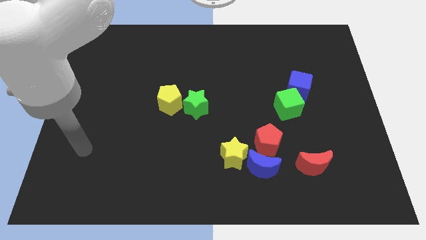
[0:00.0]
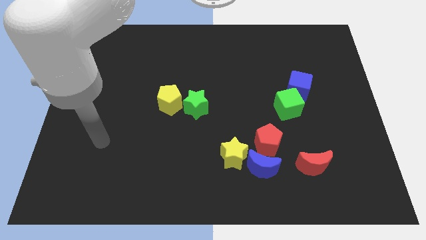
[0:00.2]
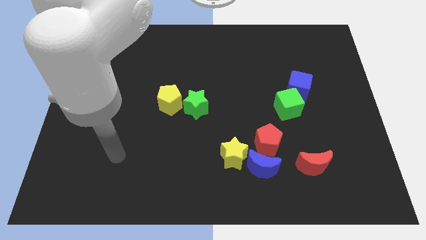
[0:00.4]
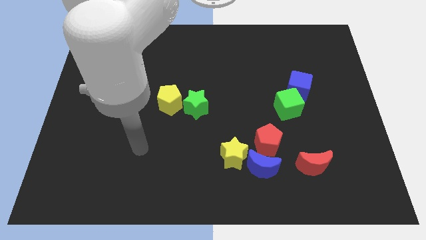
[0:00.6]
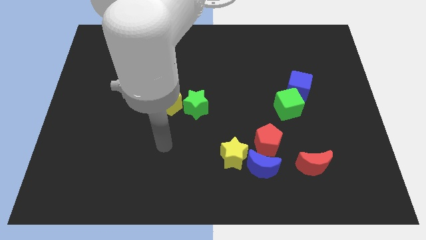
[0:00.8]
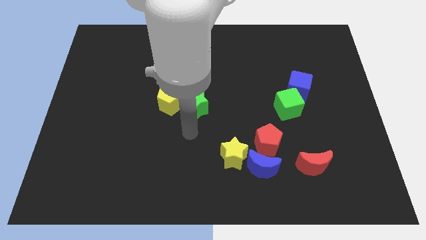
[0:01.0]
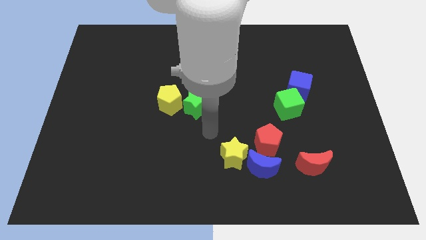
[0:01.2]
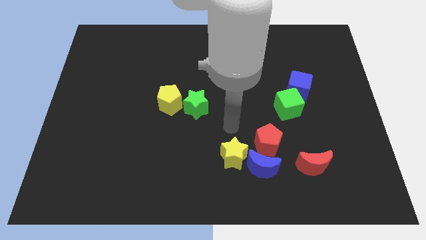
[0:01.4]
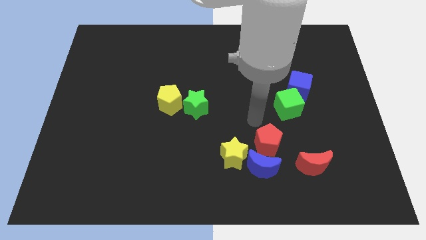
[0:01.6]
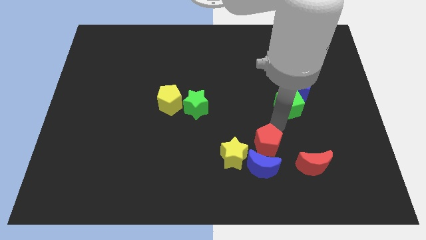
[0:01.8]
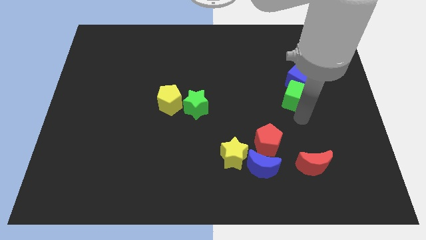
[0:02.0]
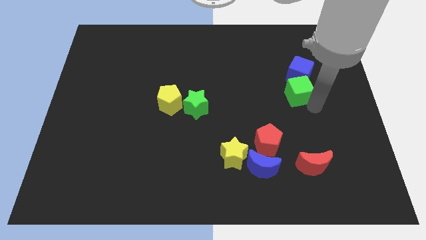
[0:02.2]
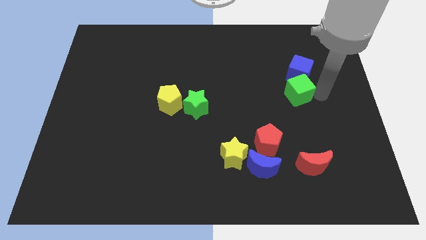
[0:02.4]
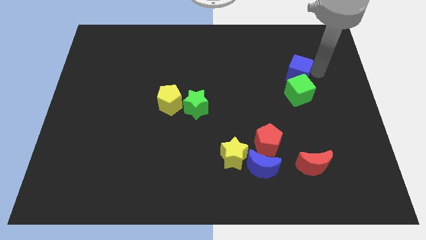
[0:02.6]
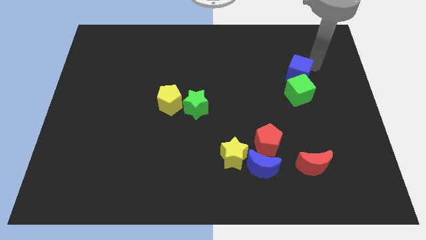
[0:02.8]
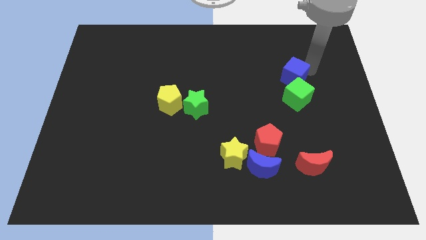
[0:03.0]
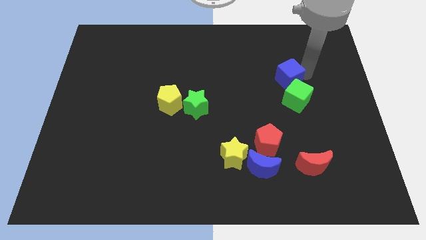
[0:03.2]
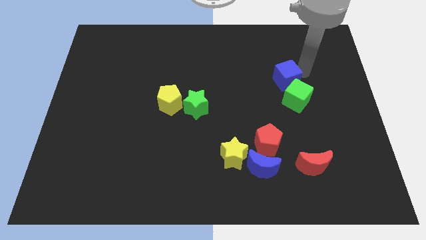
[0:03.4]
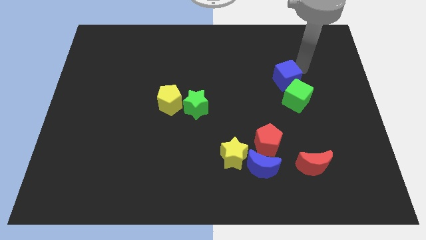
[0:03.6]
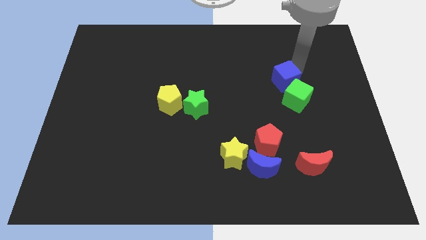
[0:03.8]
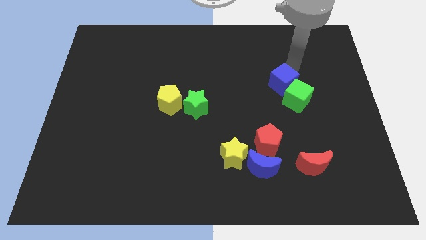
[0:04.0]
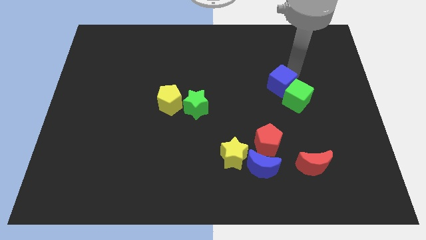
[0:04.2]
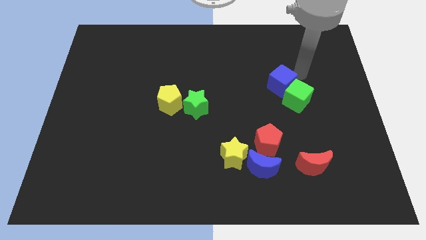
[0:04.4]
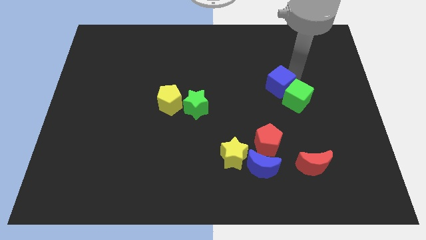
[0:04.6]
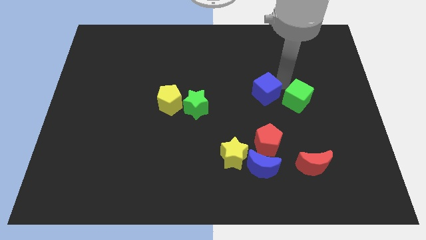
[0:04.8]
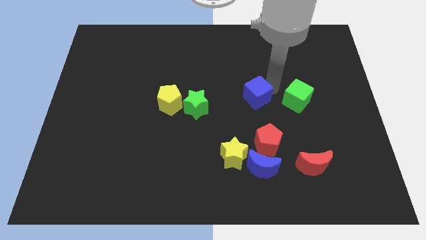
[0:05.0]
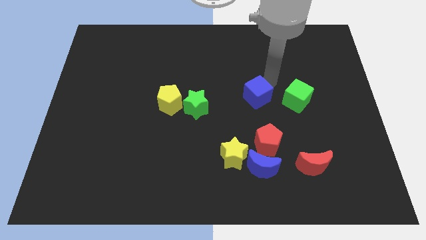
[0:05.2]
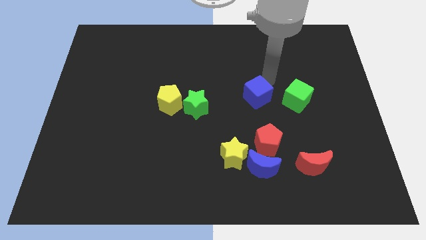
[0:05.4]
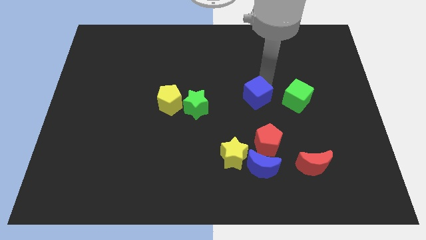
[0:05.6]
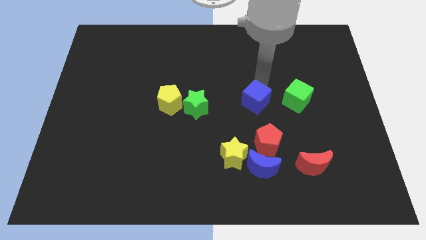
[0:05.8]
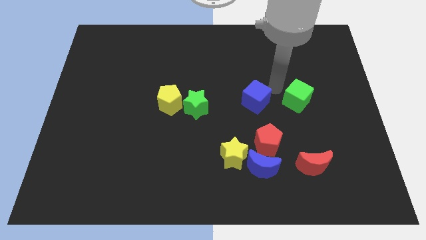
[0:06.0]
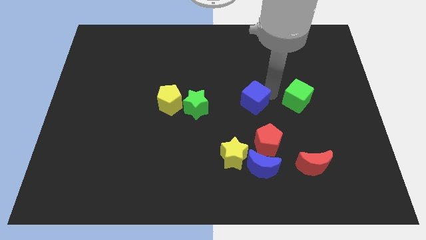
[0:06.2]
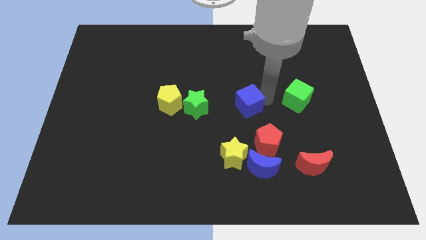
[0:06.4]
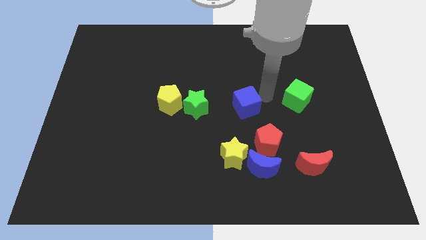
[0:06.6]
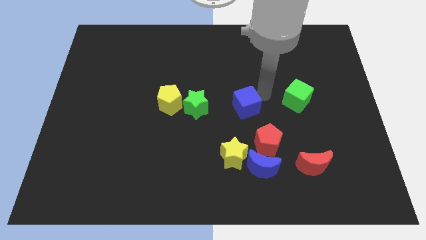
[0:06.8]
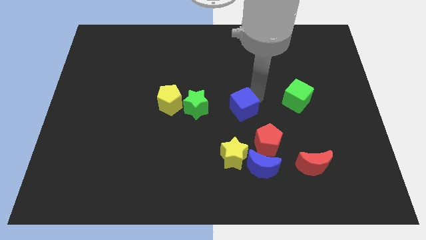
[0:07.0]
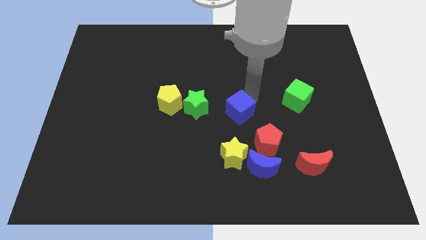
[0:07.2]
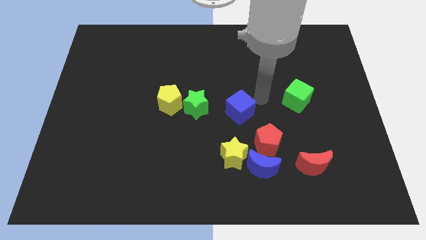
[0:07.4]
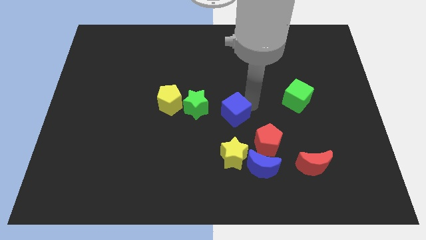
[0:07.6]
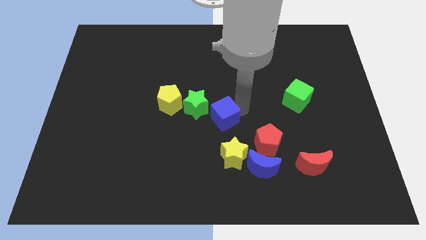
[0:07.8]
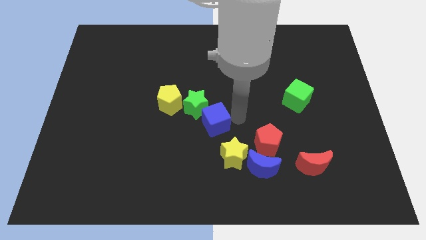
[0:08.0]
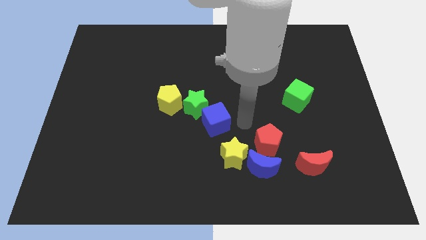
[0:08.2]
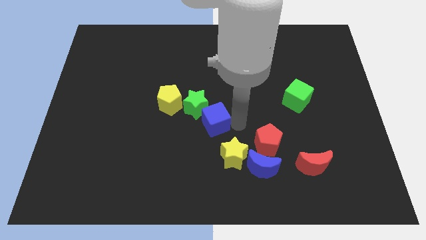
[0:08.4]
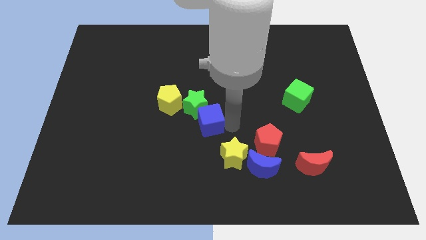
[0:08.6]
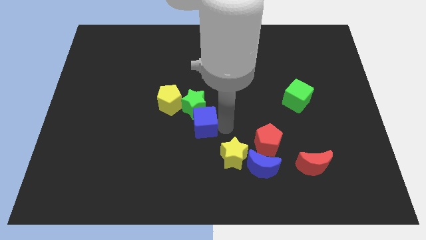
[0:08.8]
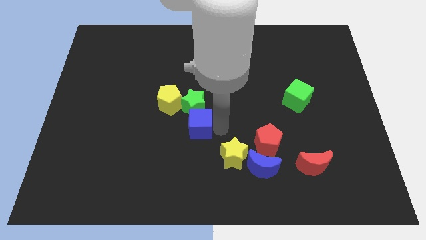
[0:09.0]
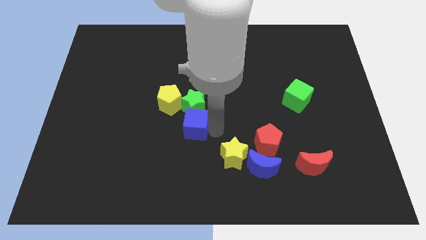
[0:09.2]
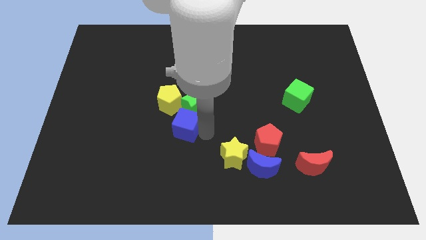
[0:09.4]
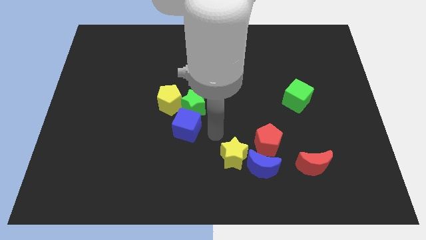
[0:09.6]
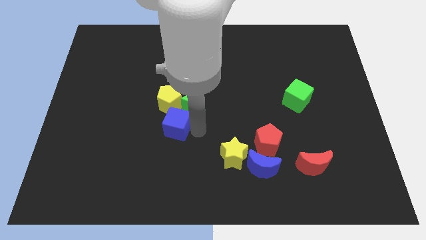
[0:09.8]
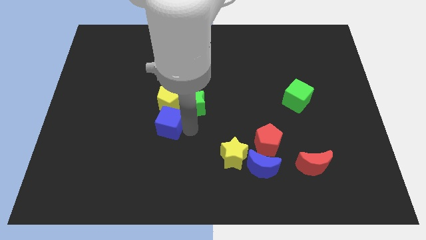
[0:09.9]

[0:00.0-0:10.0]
push the blue cube to the bottom left of the yellow pentagon

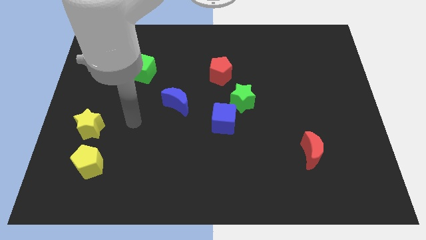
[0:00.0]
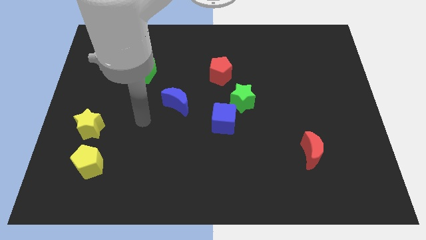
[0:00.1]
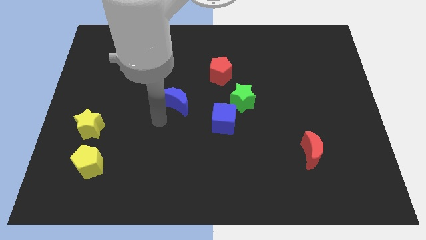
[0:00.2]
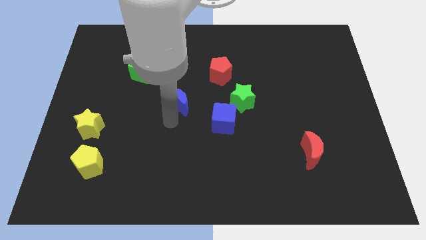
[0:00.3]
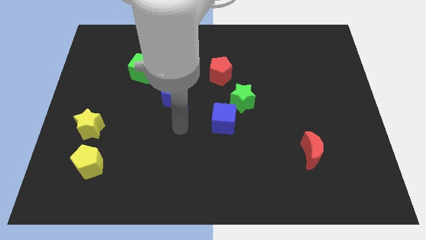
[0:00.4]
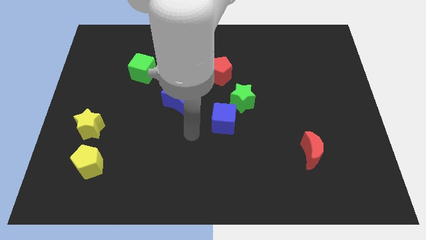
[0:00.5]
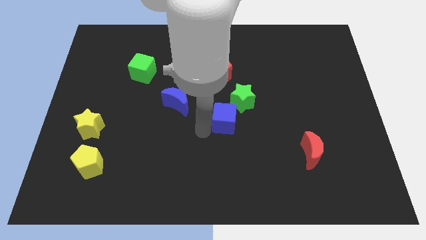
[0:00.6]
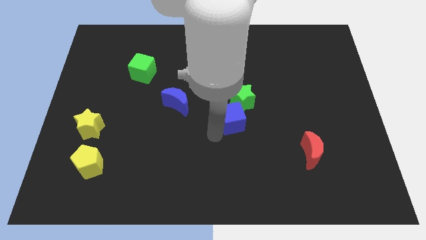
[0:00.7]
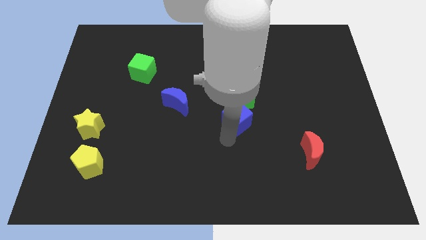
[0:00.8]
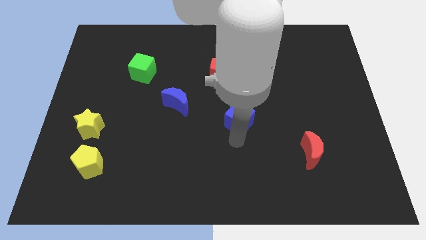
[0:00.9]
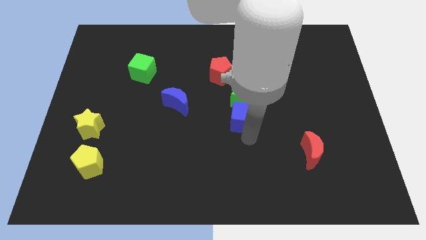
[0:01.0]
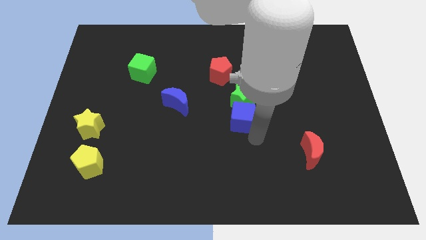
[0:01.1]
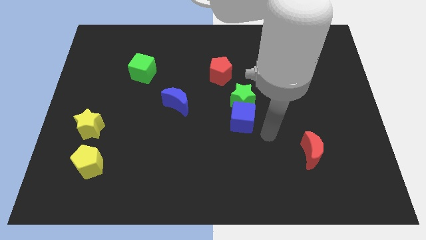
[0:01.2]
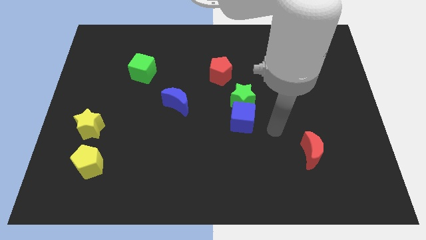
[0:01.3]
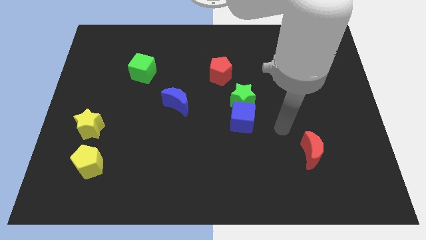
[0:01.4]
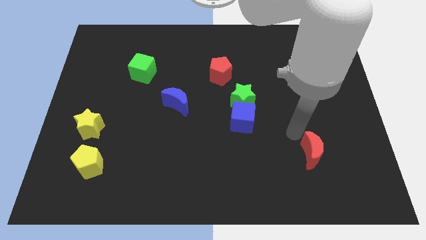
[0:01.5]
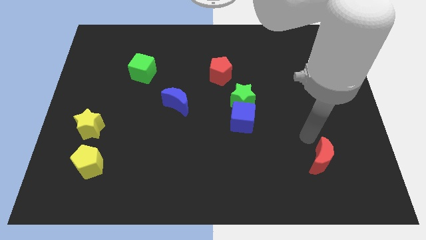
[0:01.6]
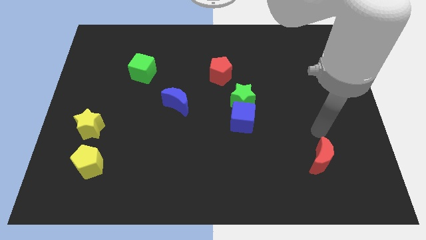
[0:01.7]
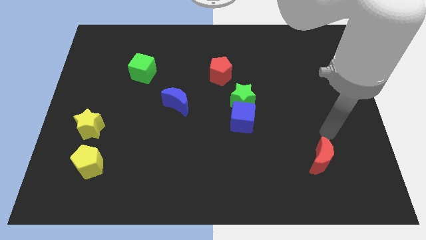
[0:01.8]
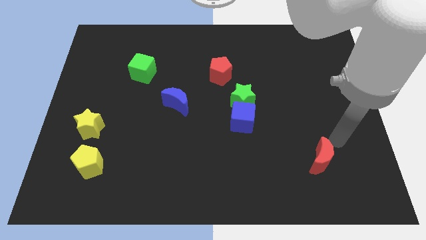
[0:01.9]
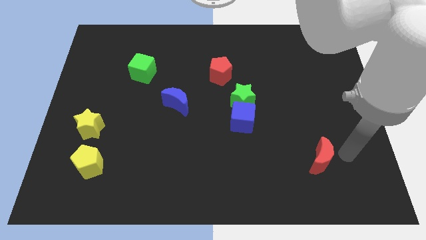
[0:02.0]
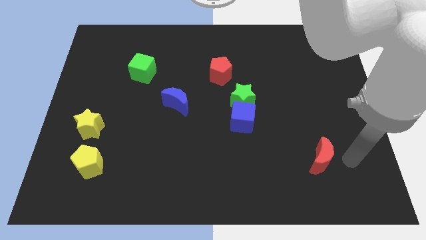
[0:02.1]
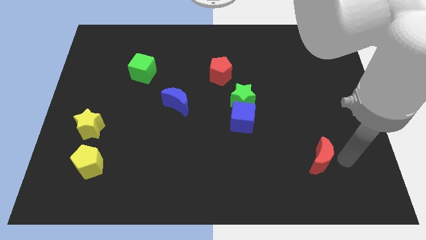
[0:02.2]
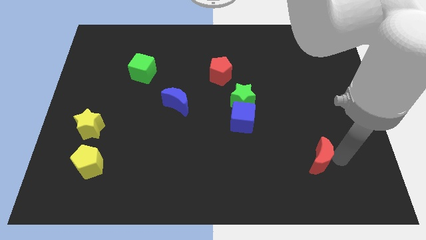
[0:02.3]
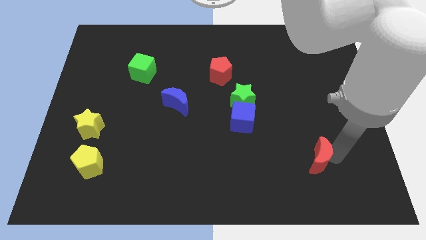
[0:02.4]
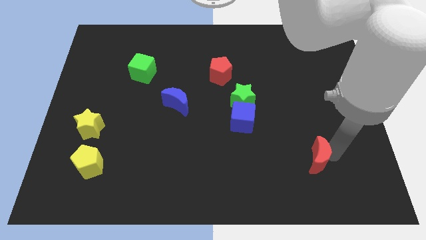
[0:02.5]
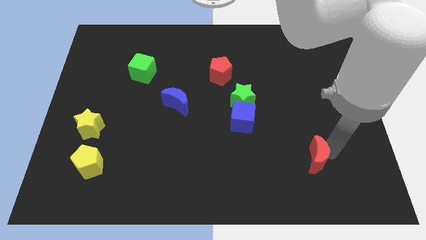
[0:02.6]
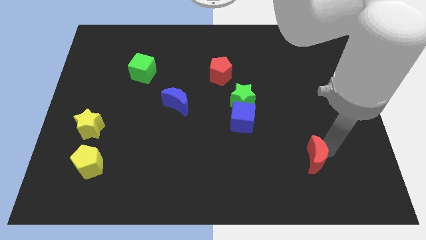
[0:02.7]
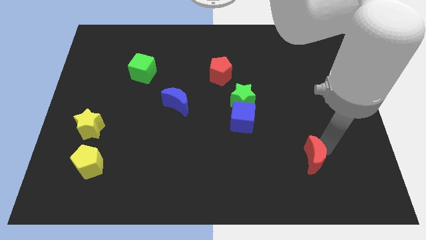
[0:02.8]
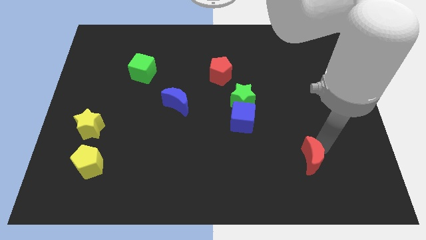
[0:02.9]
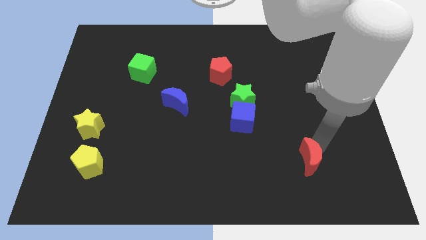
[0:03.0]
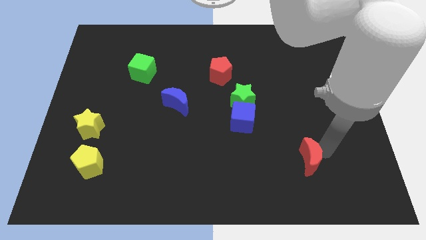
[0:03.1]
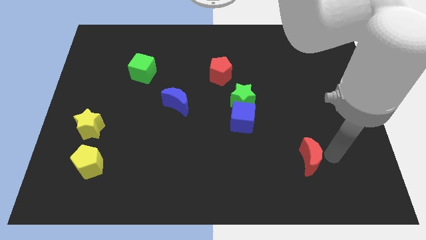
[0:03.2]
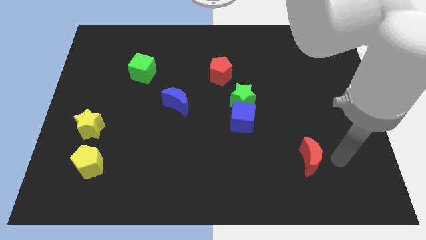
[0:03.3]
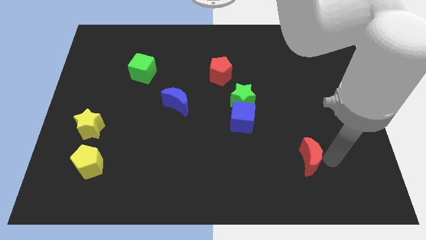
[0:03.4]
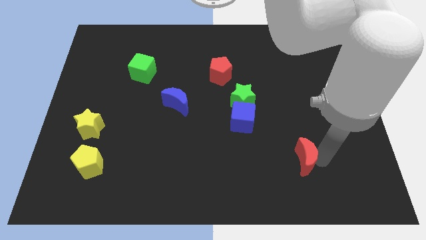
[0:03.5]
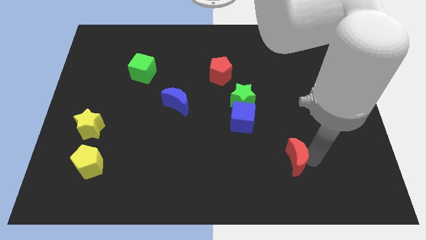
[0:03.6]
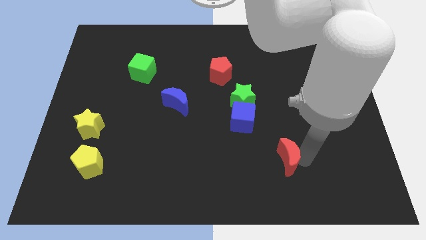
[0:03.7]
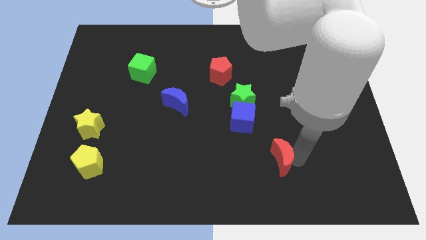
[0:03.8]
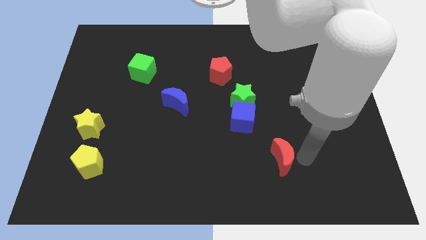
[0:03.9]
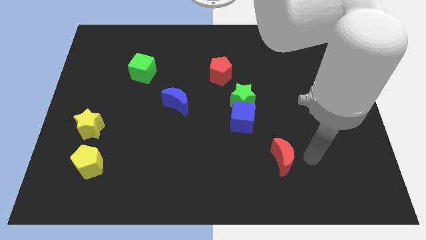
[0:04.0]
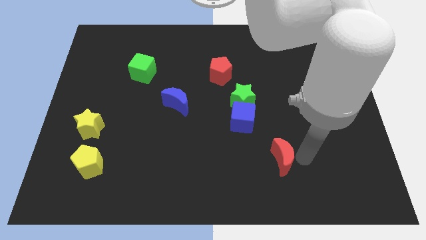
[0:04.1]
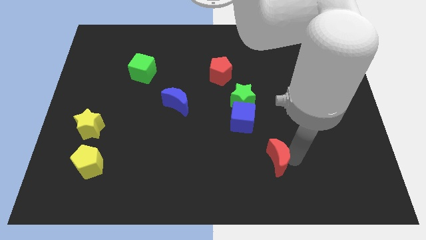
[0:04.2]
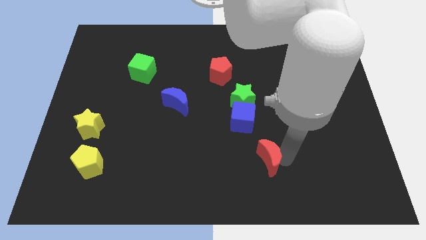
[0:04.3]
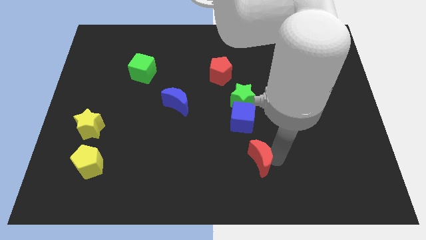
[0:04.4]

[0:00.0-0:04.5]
push the red moon below the blue cube
